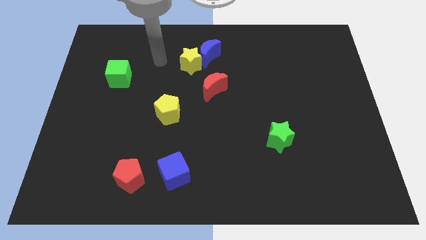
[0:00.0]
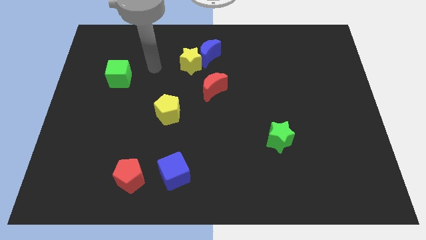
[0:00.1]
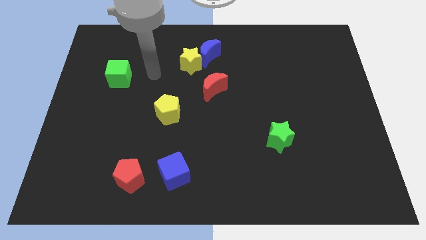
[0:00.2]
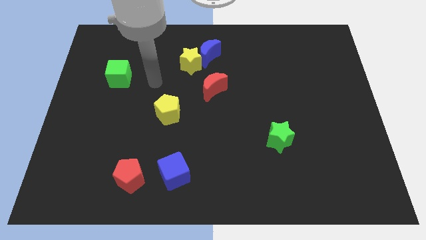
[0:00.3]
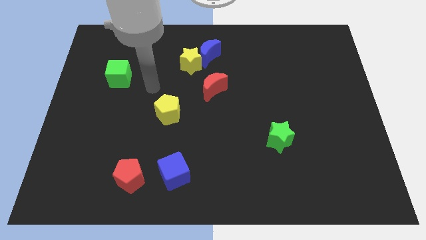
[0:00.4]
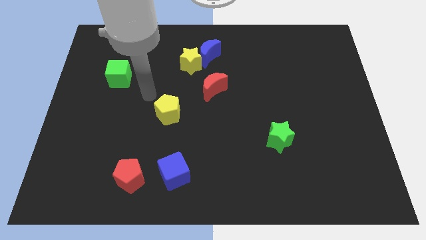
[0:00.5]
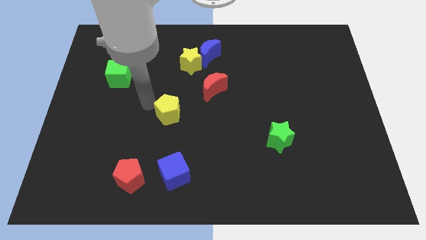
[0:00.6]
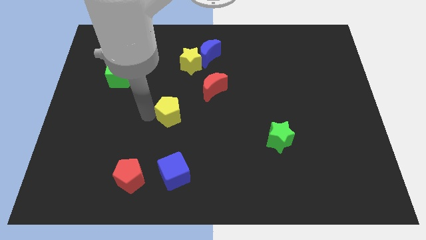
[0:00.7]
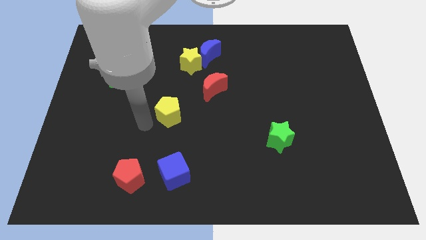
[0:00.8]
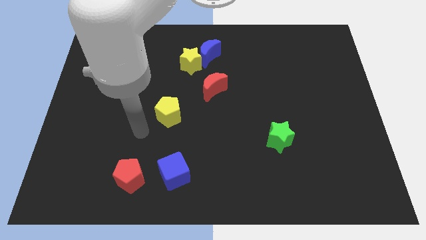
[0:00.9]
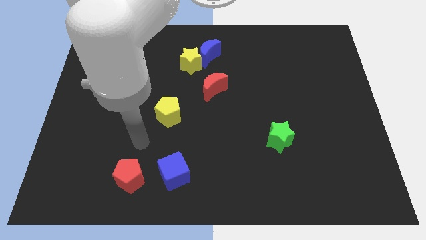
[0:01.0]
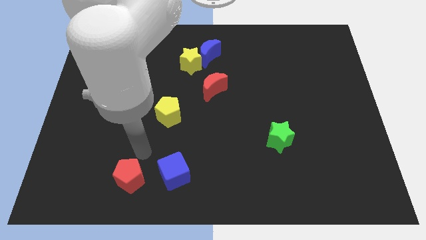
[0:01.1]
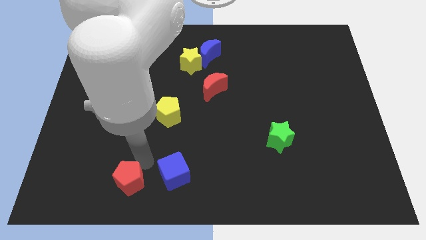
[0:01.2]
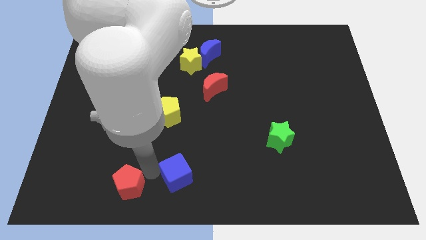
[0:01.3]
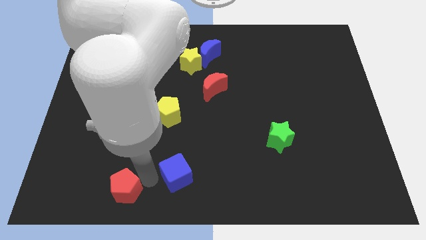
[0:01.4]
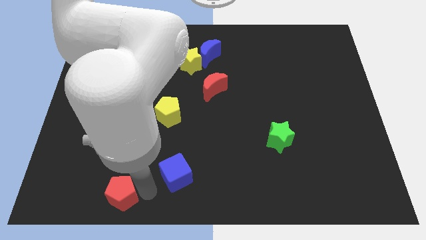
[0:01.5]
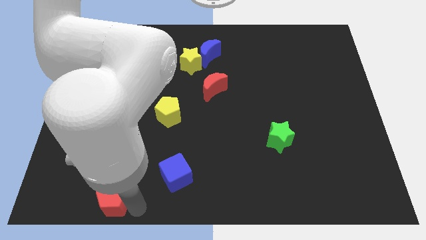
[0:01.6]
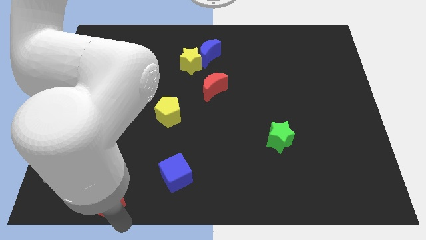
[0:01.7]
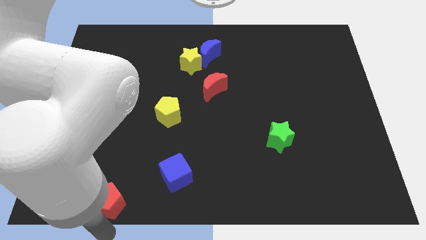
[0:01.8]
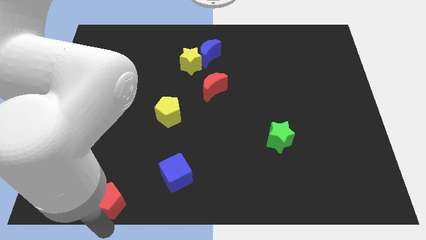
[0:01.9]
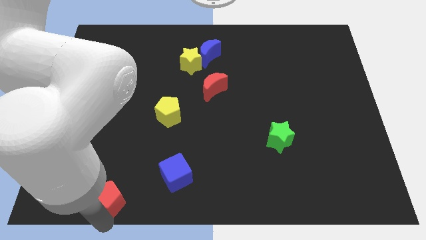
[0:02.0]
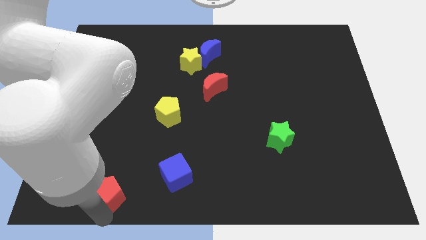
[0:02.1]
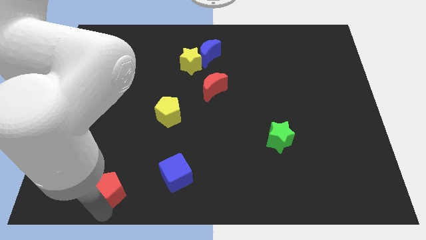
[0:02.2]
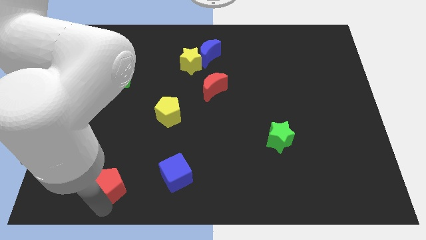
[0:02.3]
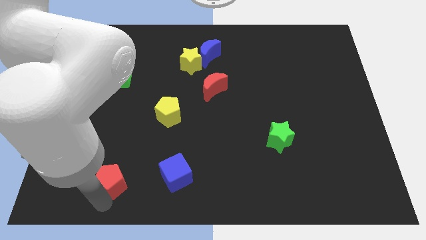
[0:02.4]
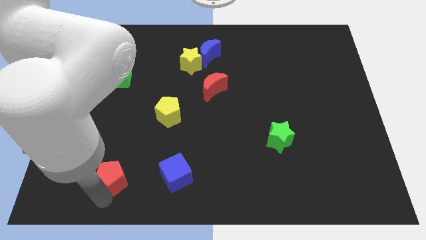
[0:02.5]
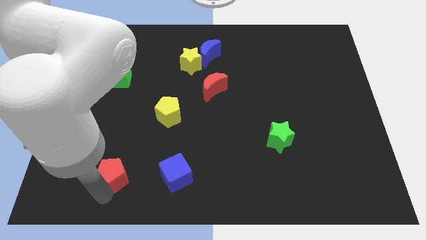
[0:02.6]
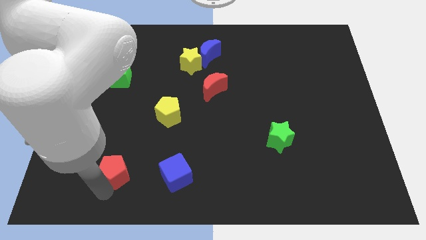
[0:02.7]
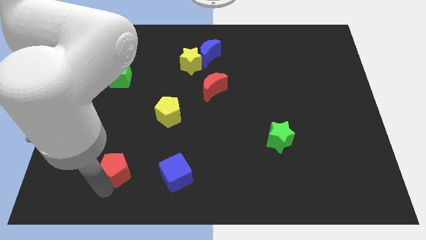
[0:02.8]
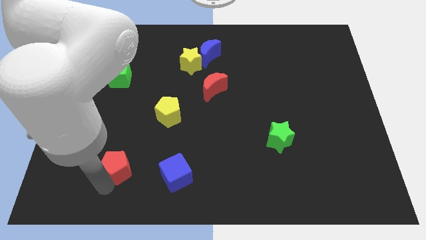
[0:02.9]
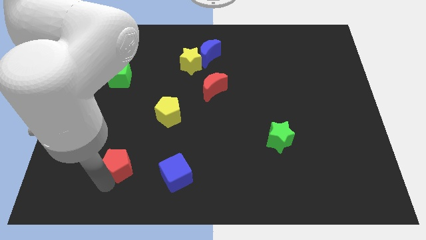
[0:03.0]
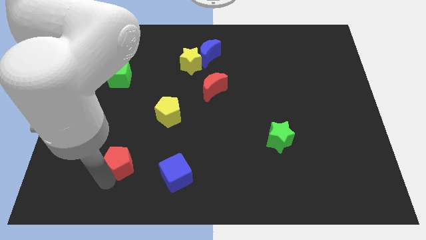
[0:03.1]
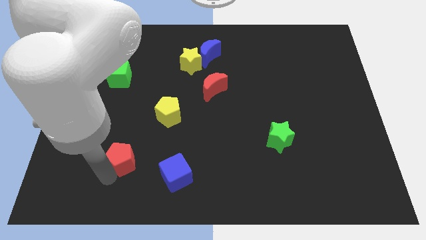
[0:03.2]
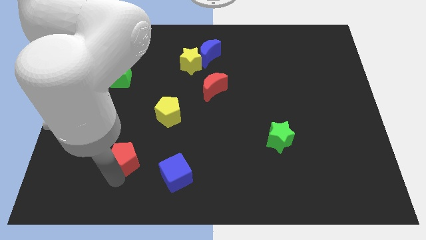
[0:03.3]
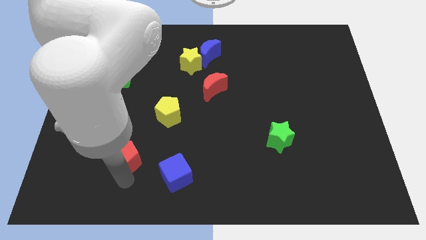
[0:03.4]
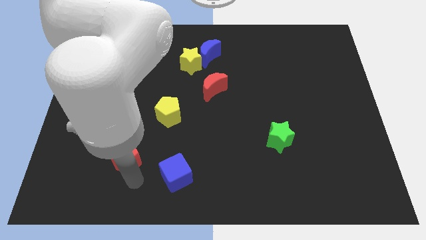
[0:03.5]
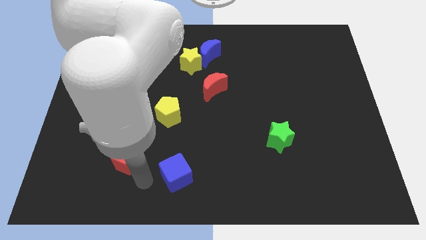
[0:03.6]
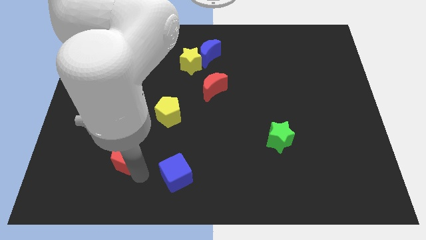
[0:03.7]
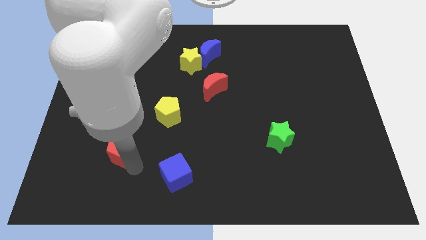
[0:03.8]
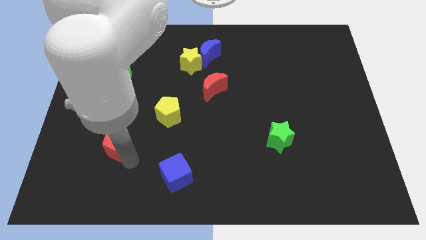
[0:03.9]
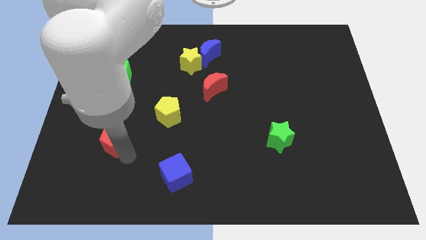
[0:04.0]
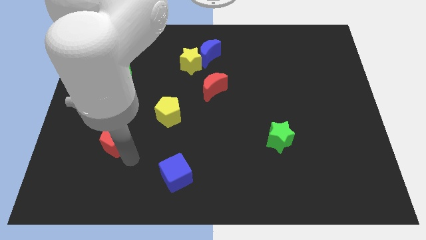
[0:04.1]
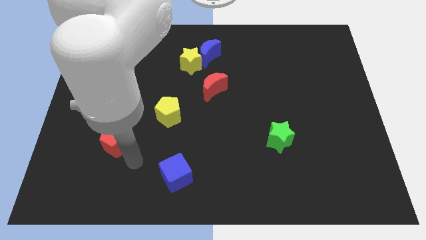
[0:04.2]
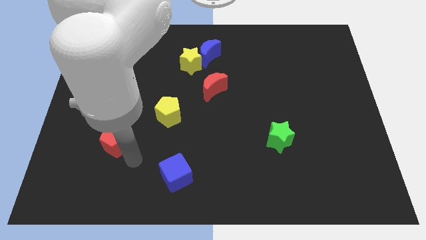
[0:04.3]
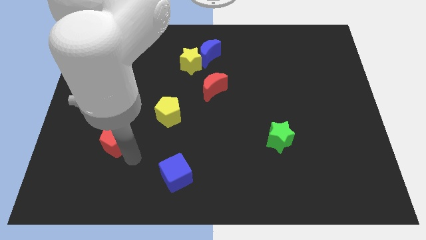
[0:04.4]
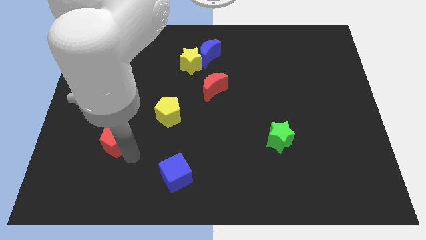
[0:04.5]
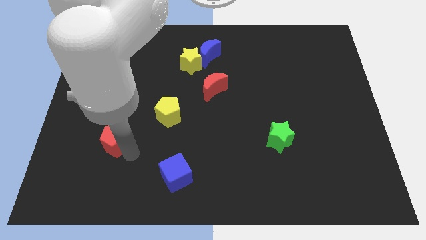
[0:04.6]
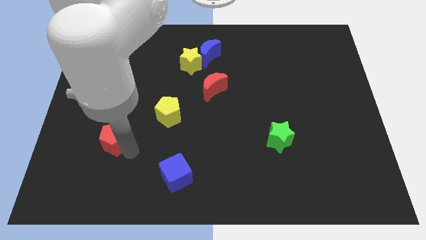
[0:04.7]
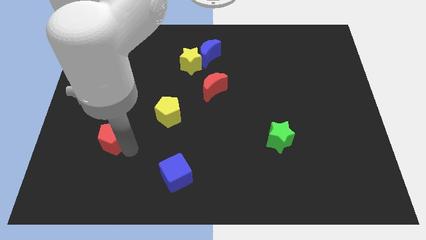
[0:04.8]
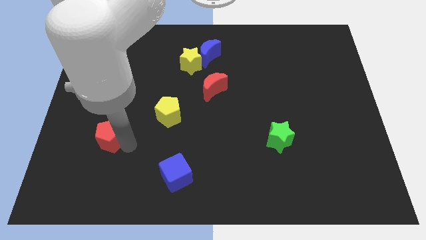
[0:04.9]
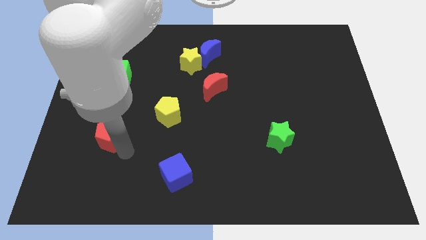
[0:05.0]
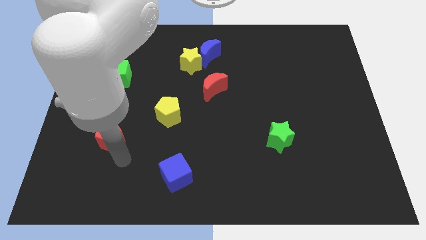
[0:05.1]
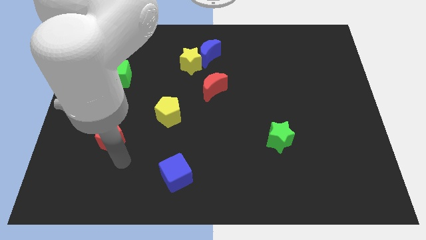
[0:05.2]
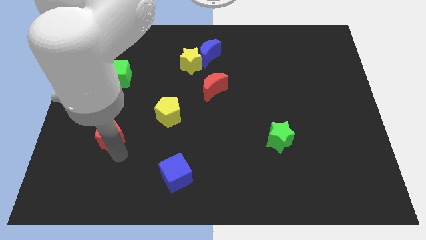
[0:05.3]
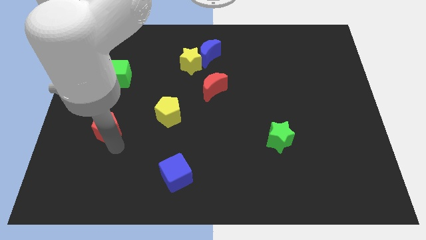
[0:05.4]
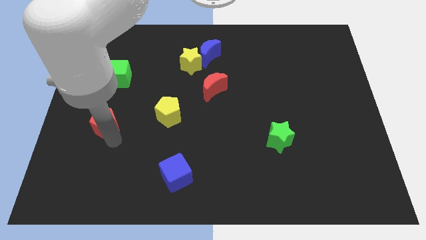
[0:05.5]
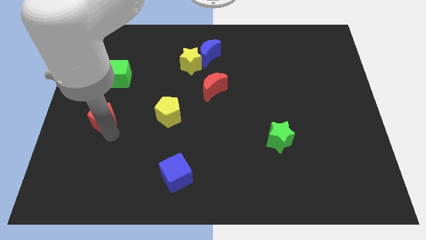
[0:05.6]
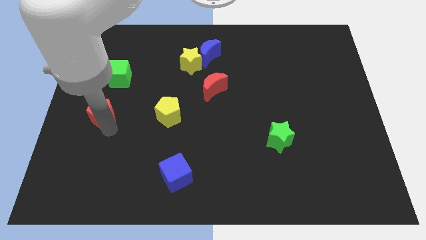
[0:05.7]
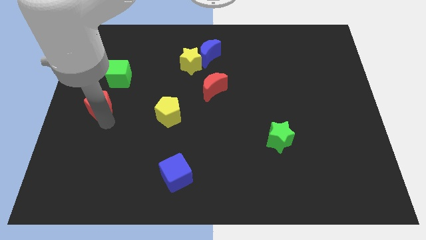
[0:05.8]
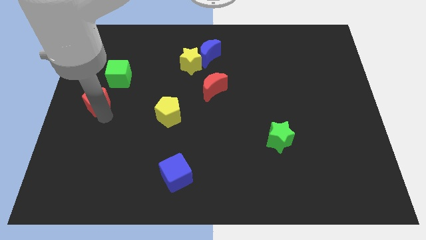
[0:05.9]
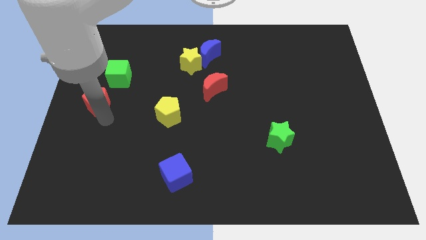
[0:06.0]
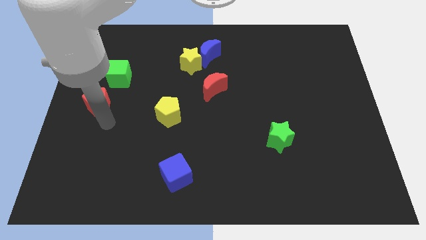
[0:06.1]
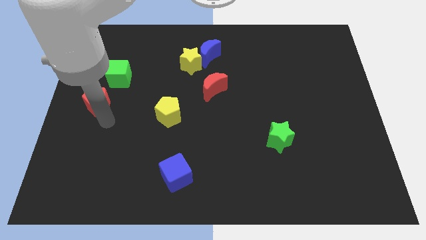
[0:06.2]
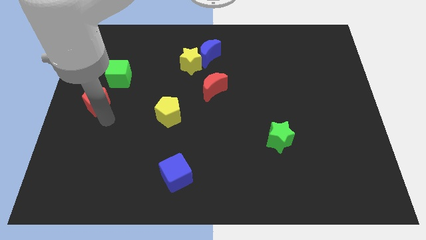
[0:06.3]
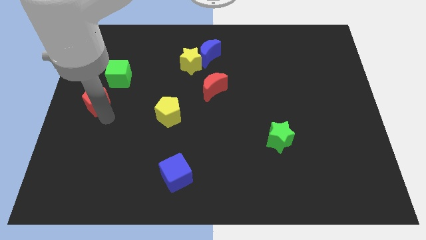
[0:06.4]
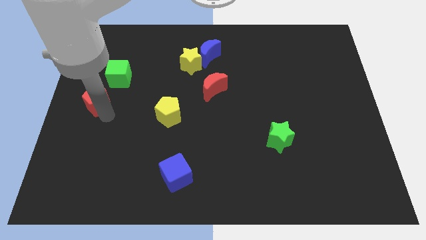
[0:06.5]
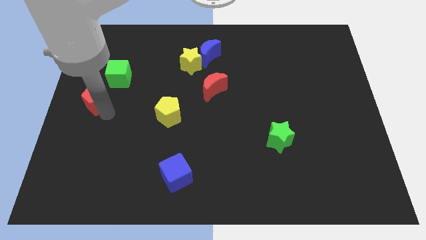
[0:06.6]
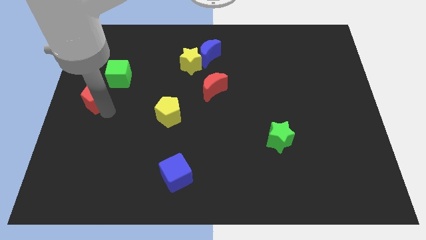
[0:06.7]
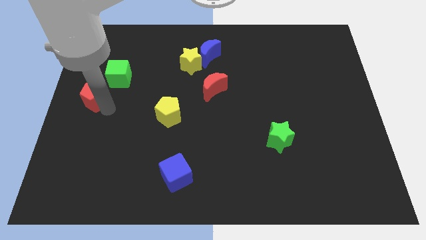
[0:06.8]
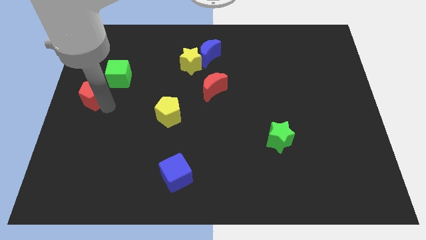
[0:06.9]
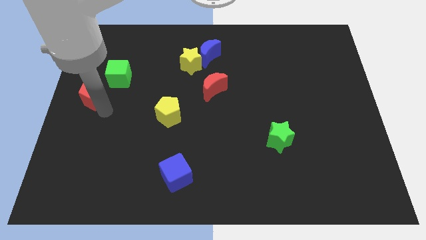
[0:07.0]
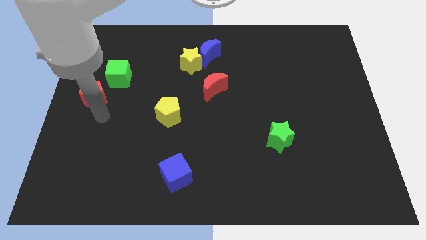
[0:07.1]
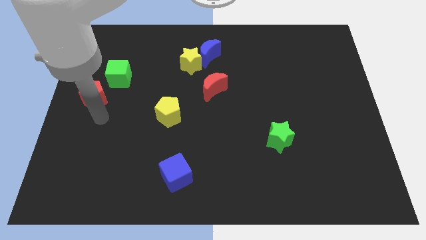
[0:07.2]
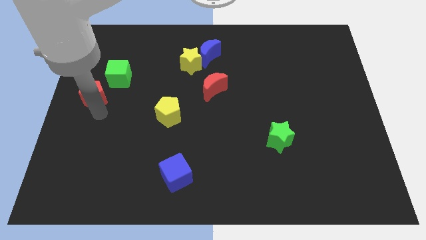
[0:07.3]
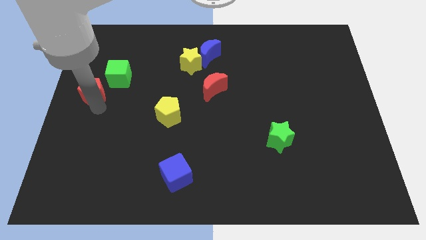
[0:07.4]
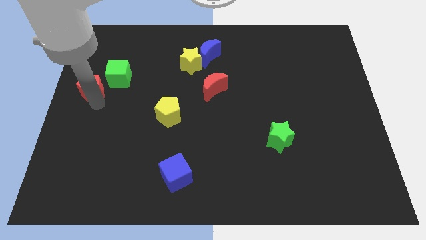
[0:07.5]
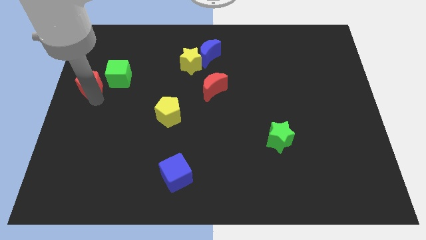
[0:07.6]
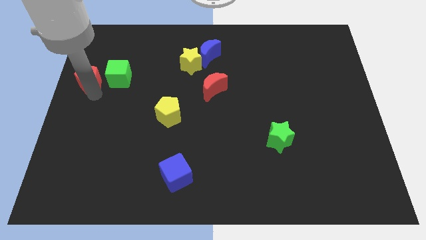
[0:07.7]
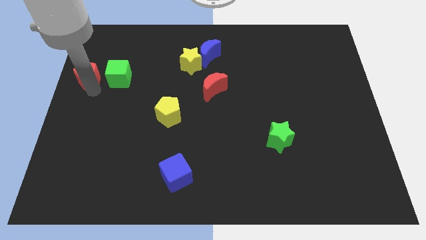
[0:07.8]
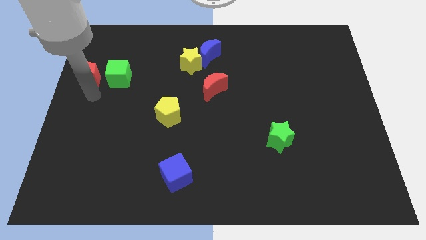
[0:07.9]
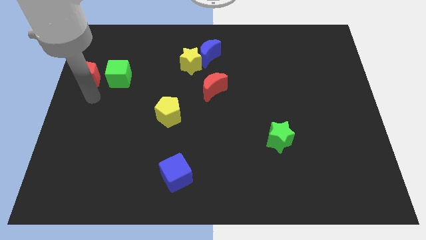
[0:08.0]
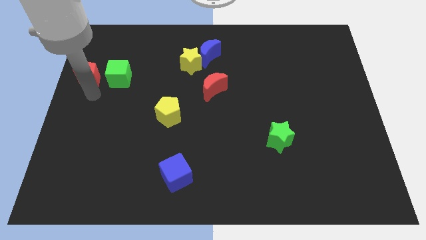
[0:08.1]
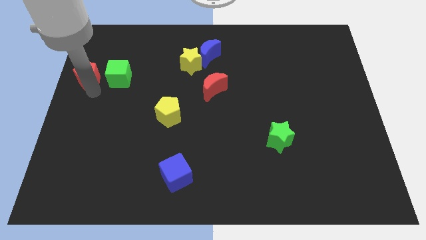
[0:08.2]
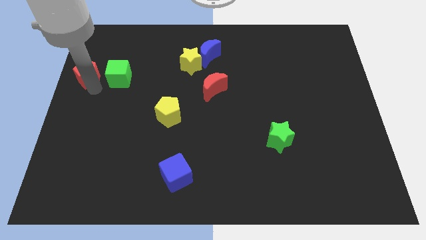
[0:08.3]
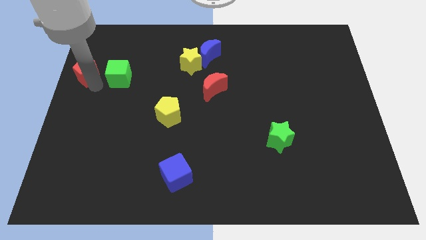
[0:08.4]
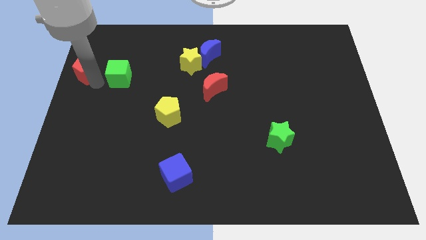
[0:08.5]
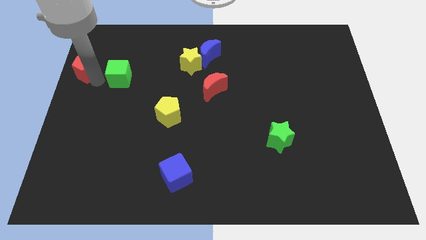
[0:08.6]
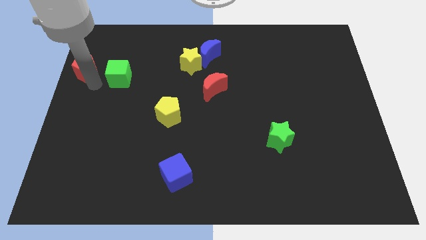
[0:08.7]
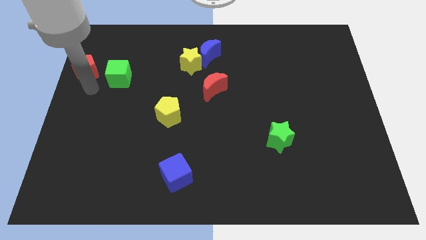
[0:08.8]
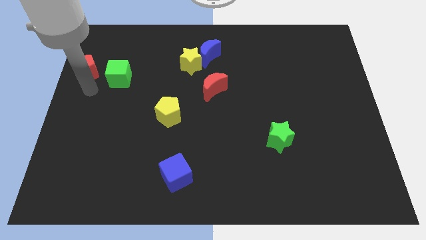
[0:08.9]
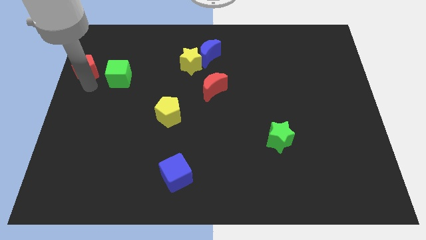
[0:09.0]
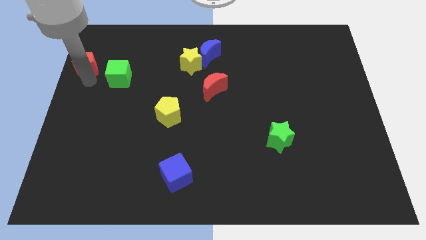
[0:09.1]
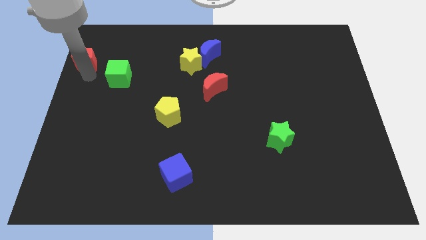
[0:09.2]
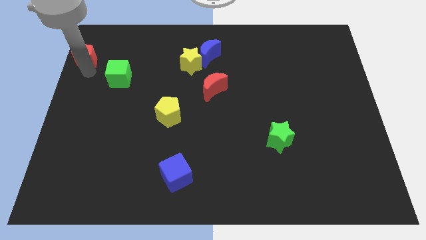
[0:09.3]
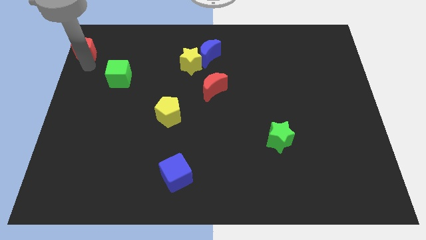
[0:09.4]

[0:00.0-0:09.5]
move the red pentagon to the top left of the board
